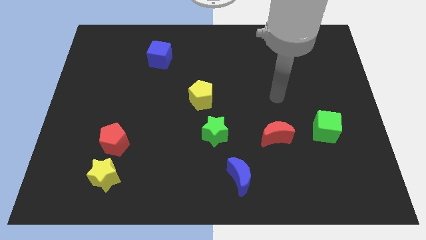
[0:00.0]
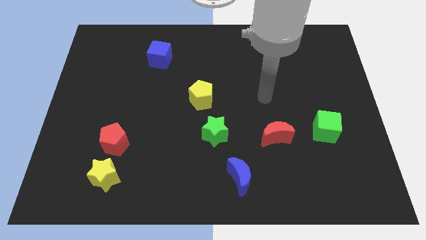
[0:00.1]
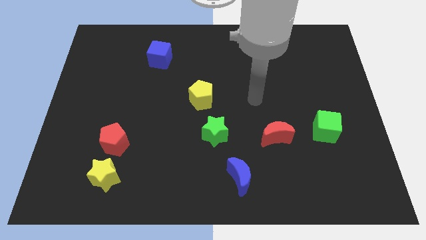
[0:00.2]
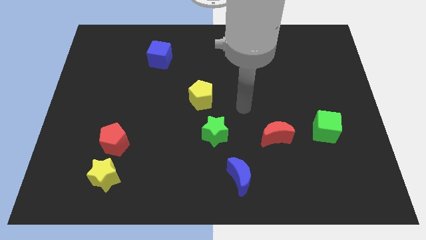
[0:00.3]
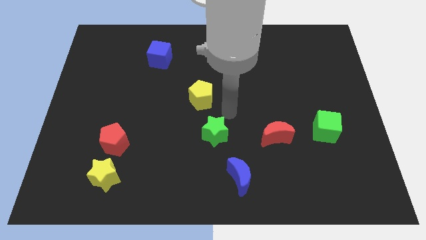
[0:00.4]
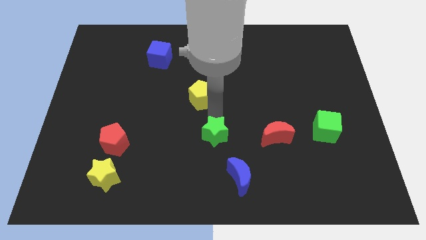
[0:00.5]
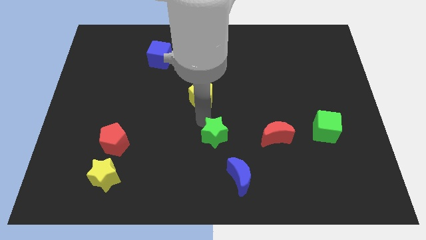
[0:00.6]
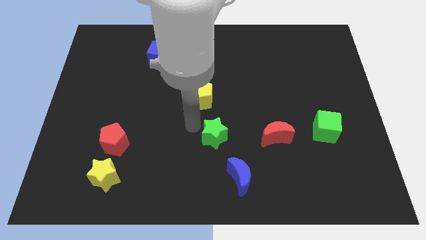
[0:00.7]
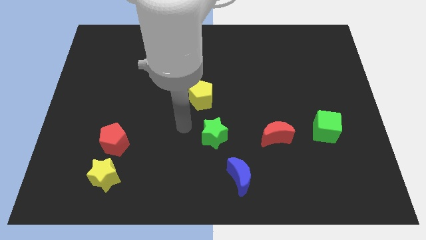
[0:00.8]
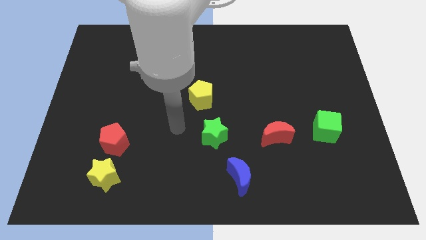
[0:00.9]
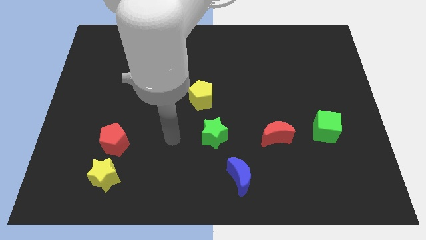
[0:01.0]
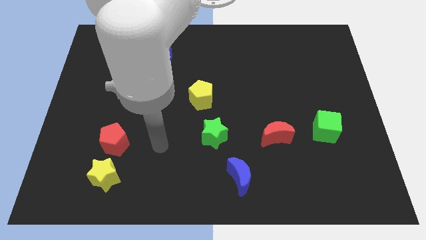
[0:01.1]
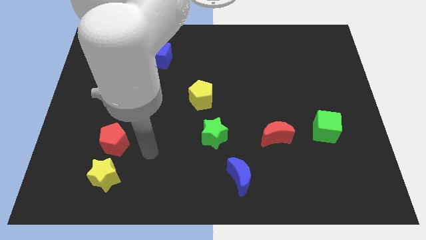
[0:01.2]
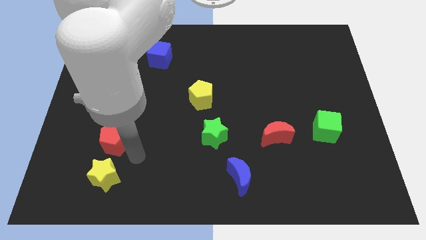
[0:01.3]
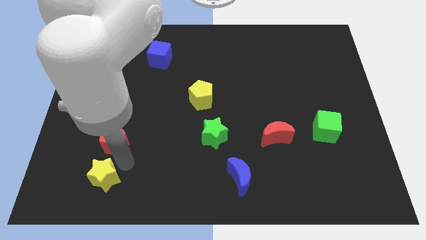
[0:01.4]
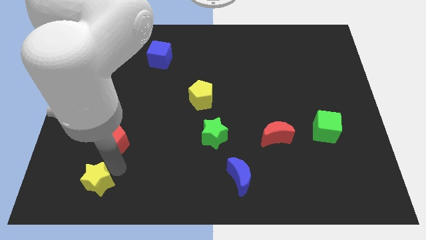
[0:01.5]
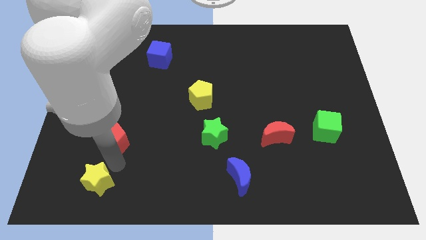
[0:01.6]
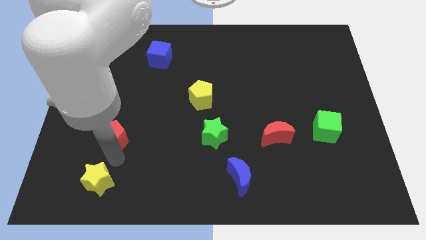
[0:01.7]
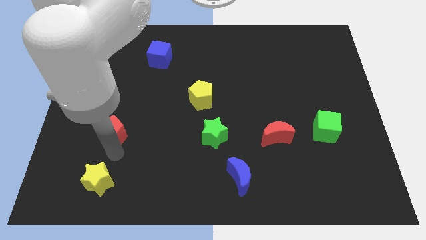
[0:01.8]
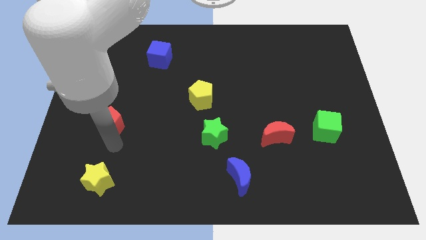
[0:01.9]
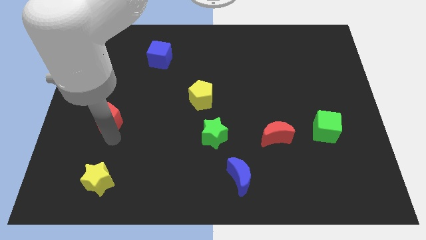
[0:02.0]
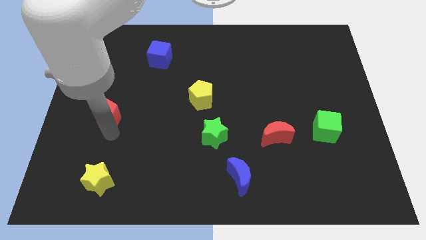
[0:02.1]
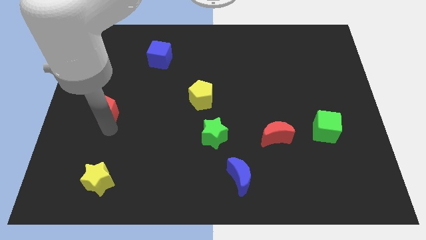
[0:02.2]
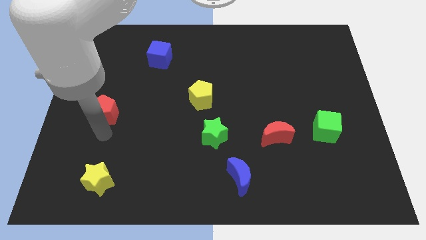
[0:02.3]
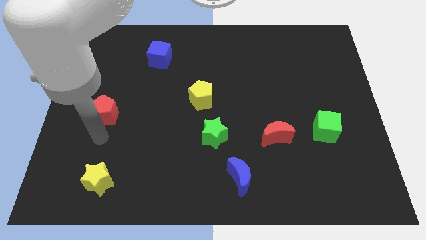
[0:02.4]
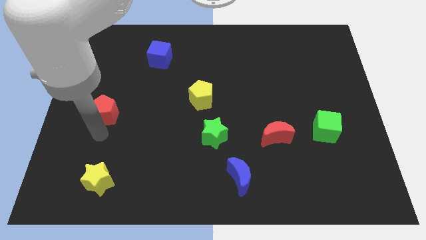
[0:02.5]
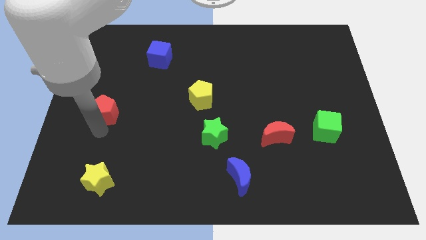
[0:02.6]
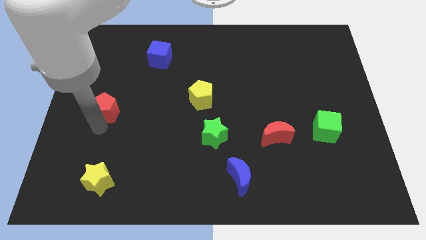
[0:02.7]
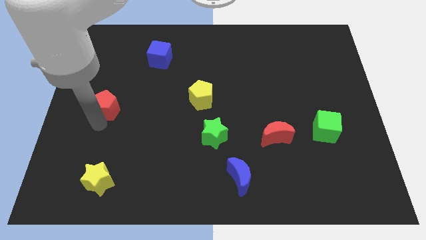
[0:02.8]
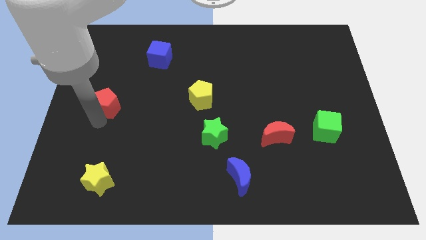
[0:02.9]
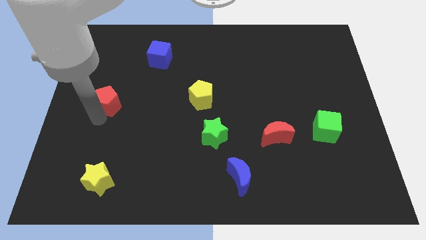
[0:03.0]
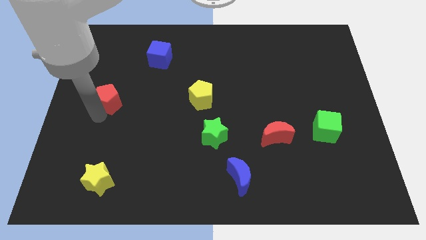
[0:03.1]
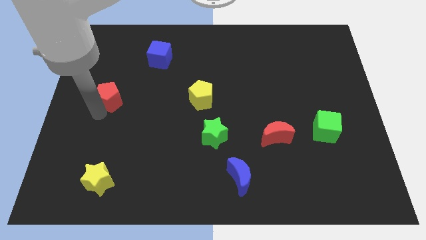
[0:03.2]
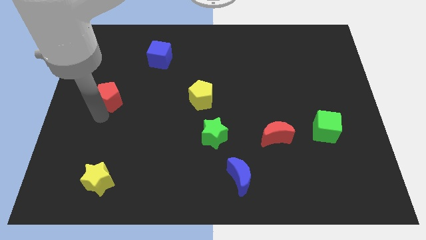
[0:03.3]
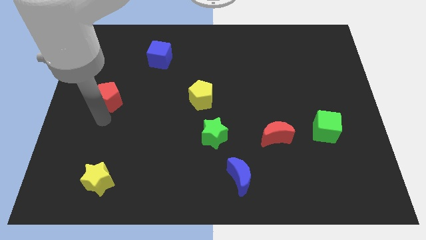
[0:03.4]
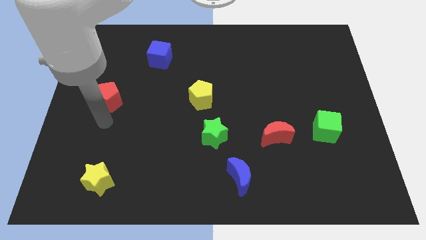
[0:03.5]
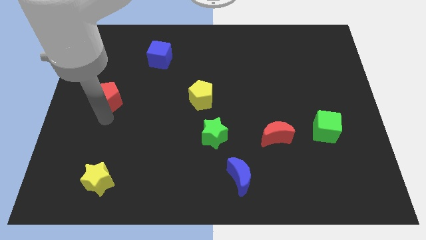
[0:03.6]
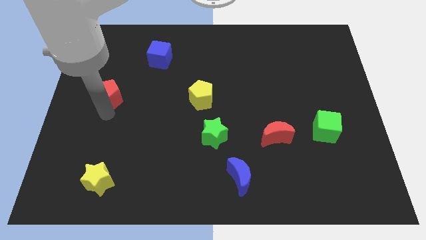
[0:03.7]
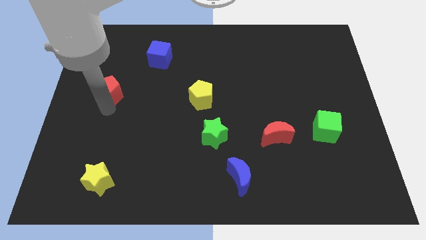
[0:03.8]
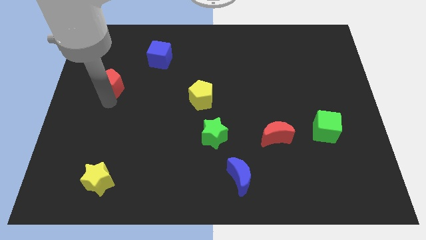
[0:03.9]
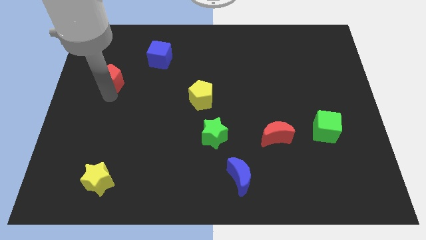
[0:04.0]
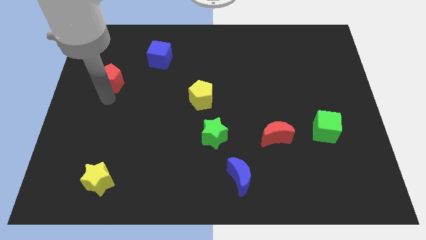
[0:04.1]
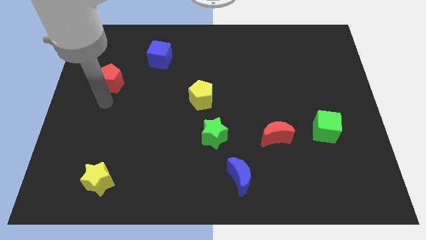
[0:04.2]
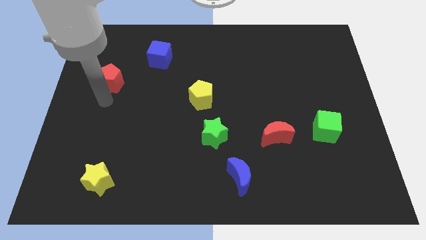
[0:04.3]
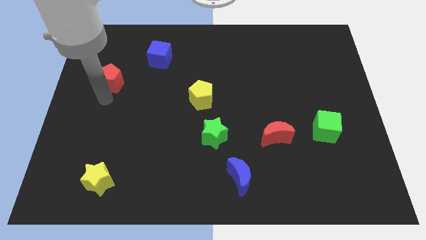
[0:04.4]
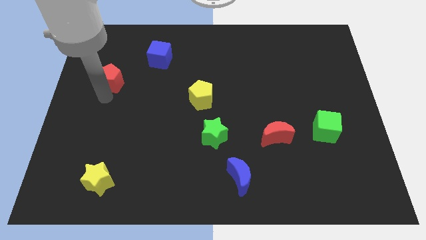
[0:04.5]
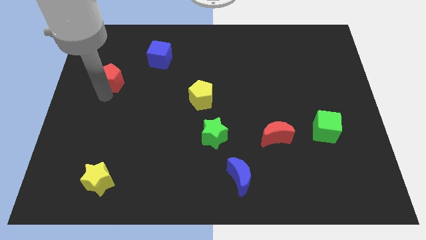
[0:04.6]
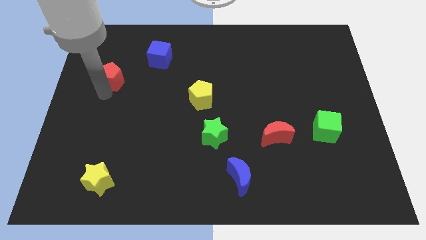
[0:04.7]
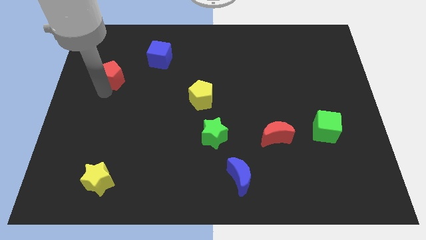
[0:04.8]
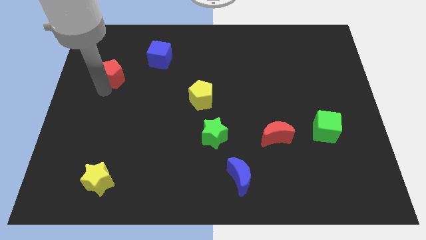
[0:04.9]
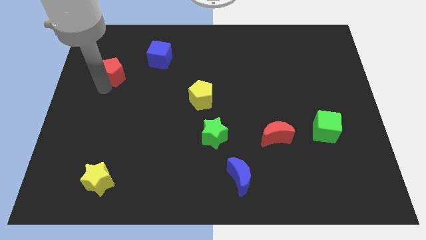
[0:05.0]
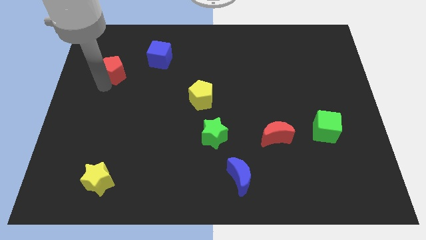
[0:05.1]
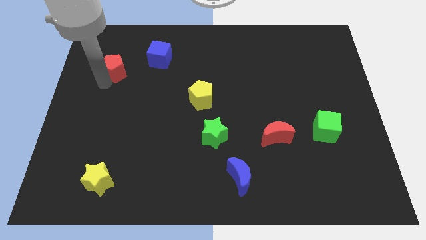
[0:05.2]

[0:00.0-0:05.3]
put the red pentagon to the left of the blue cube

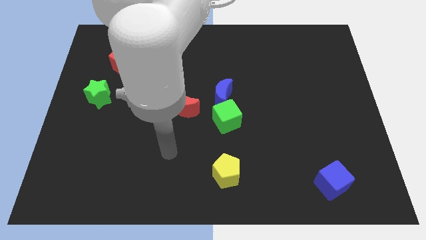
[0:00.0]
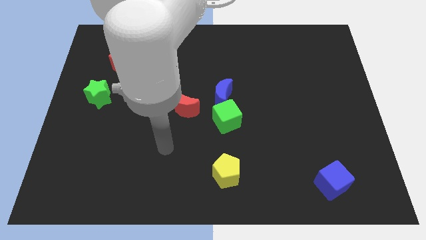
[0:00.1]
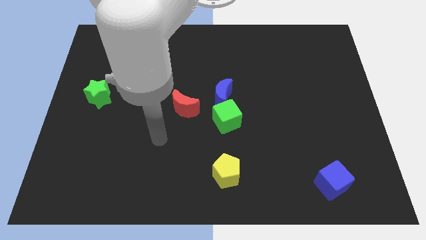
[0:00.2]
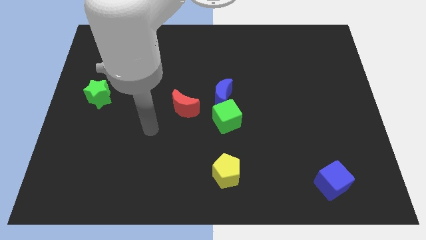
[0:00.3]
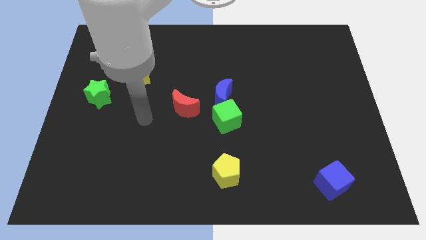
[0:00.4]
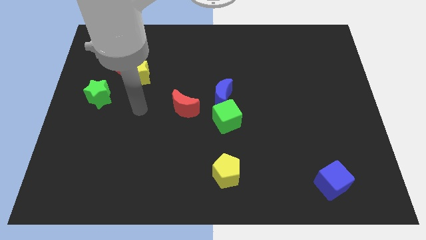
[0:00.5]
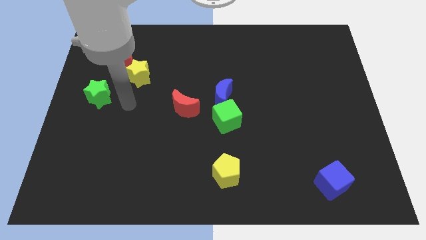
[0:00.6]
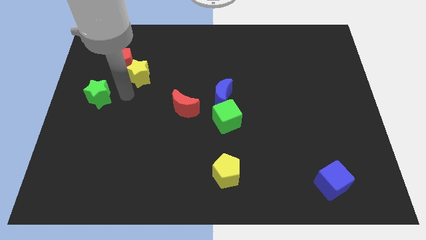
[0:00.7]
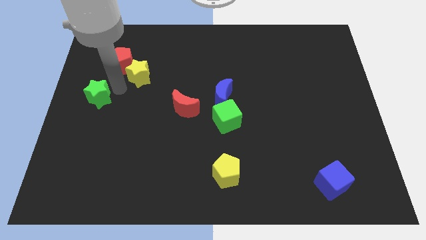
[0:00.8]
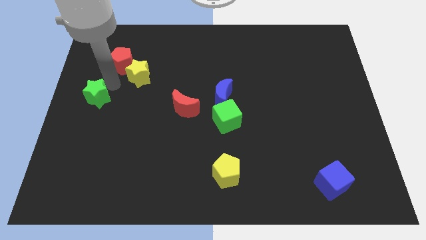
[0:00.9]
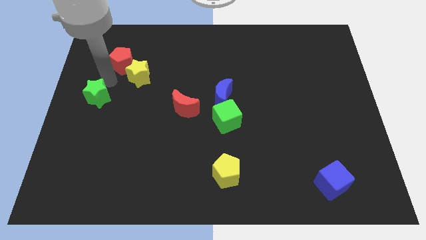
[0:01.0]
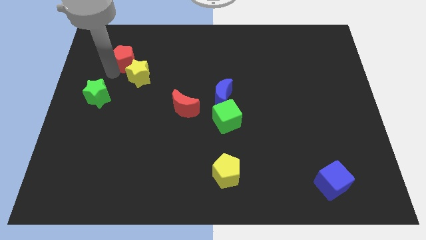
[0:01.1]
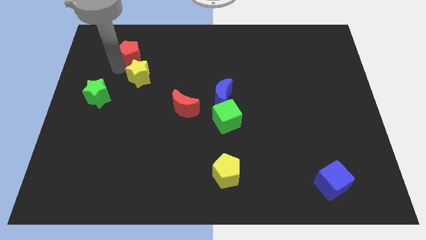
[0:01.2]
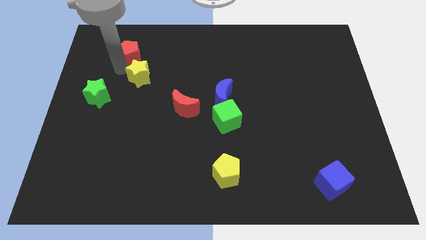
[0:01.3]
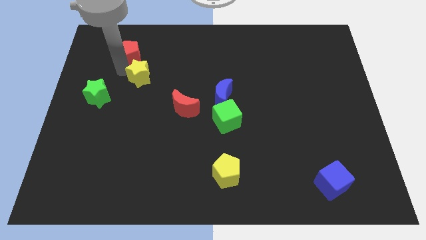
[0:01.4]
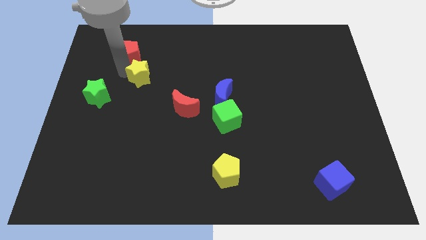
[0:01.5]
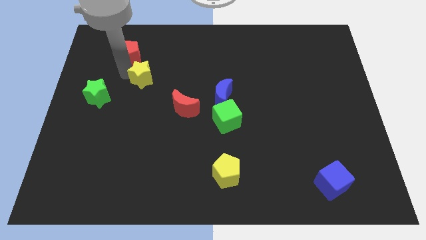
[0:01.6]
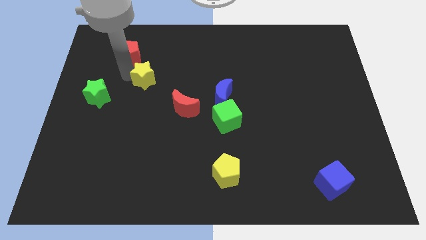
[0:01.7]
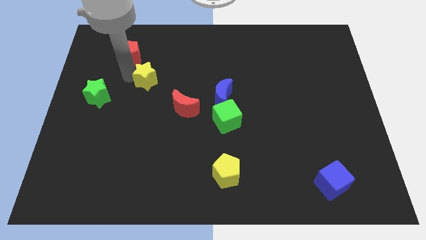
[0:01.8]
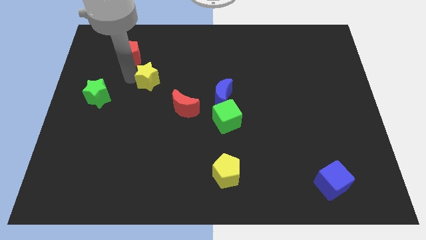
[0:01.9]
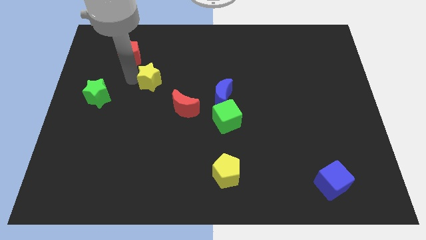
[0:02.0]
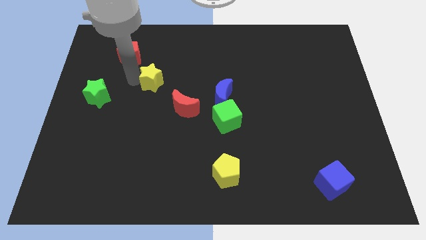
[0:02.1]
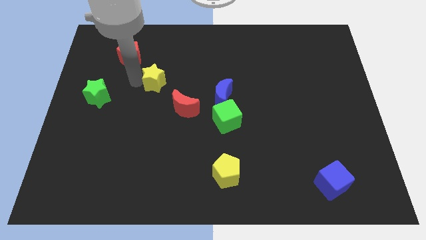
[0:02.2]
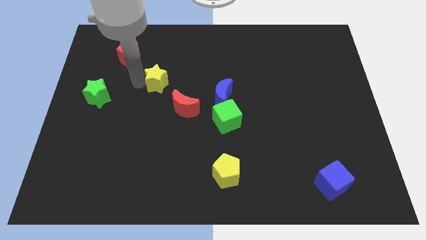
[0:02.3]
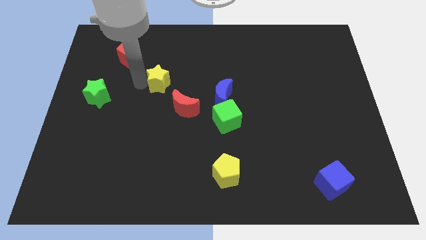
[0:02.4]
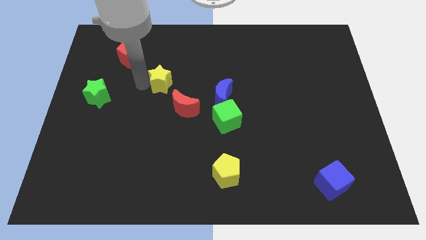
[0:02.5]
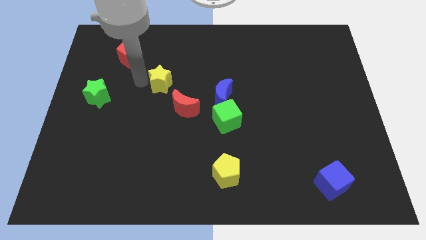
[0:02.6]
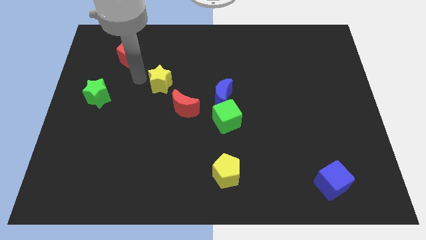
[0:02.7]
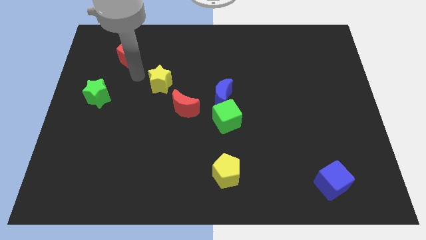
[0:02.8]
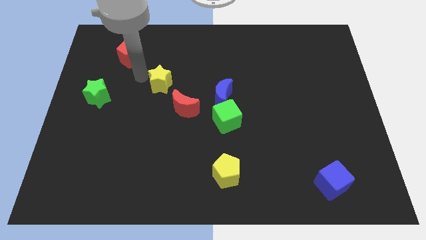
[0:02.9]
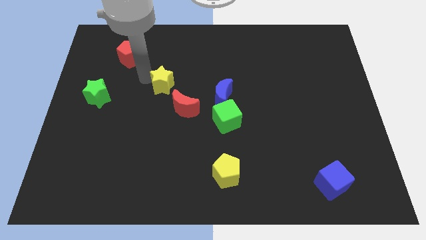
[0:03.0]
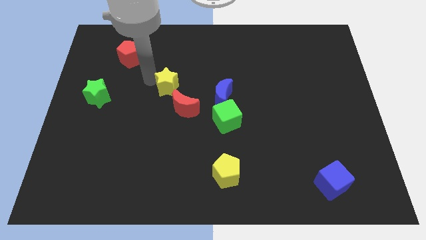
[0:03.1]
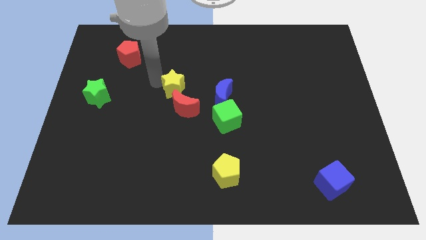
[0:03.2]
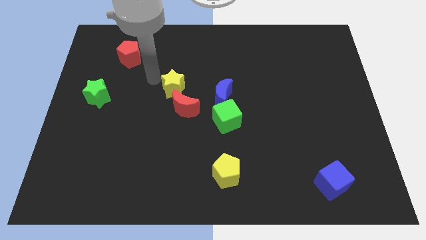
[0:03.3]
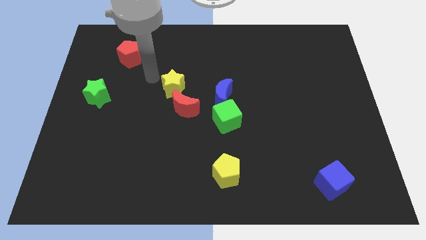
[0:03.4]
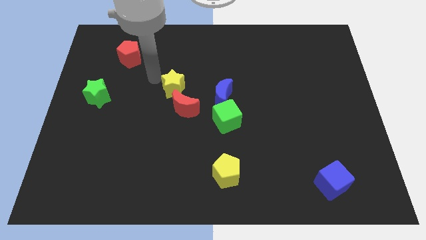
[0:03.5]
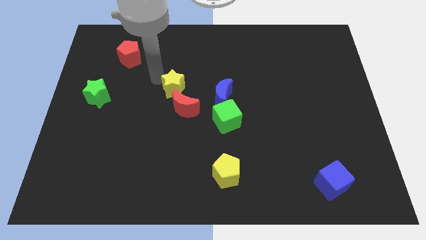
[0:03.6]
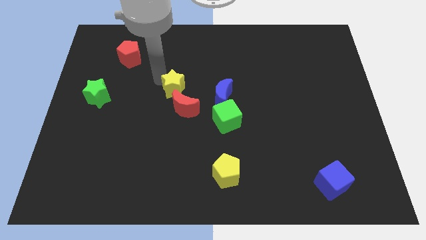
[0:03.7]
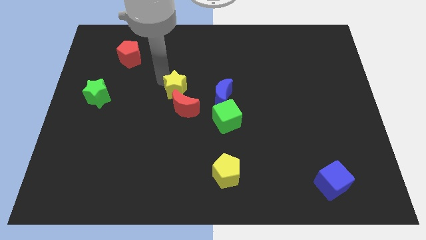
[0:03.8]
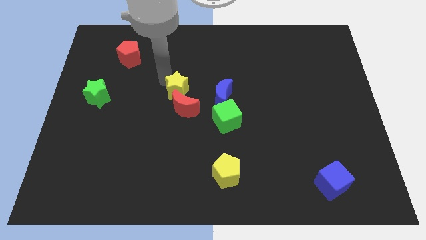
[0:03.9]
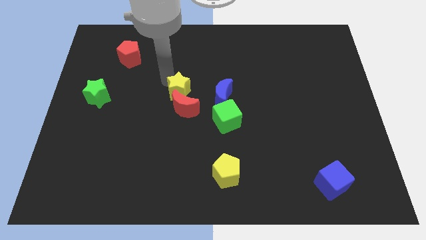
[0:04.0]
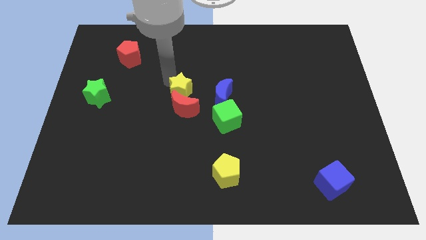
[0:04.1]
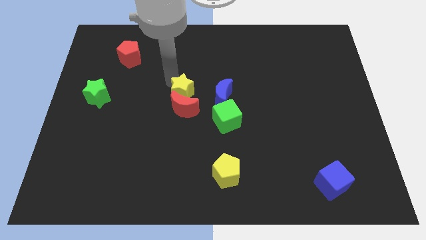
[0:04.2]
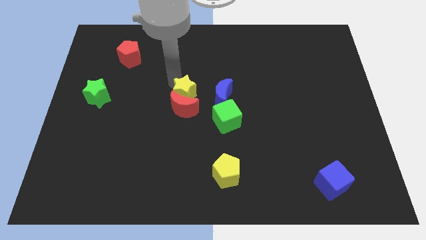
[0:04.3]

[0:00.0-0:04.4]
move the yellow star to the top left of the green cube
